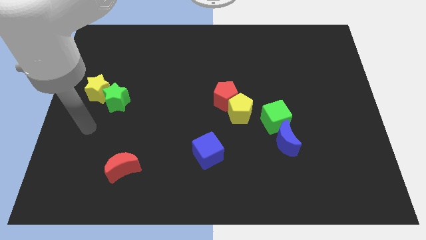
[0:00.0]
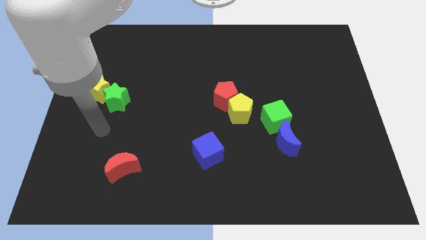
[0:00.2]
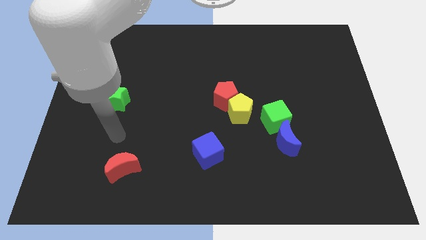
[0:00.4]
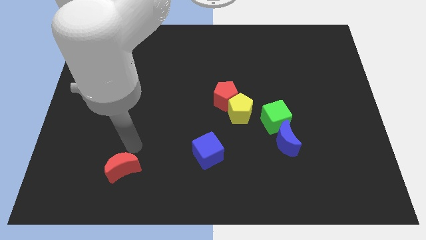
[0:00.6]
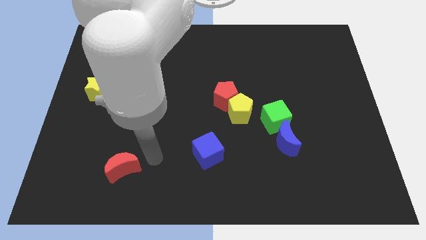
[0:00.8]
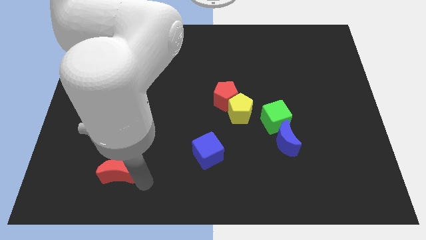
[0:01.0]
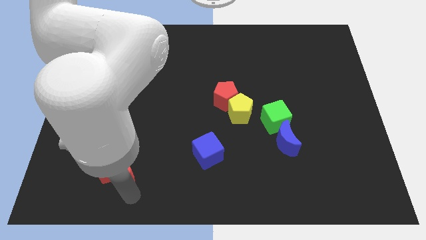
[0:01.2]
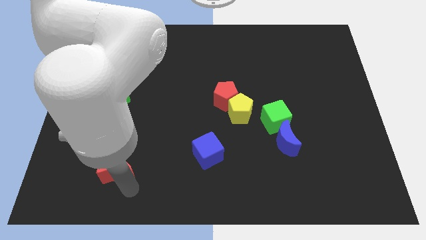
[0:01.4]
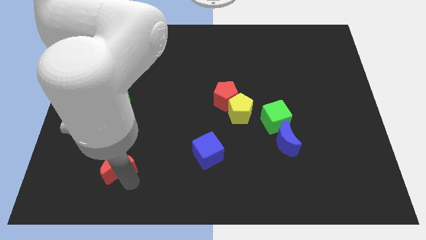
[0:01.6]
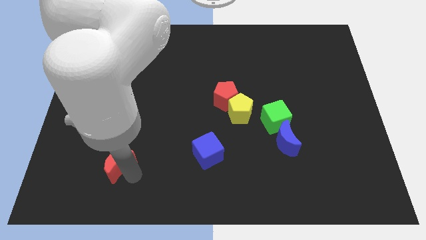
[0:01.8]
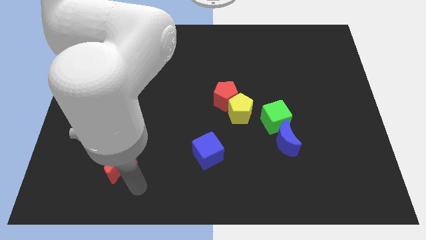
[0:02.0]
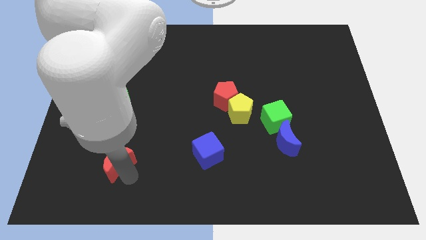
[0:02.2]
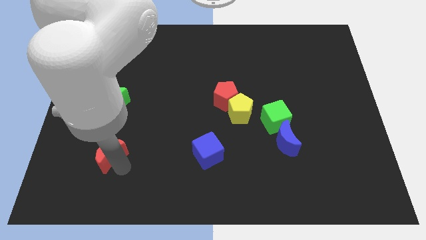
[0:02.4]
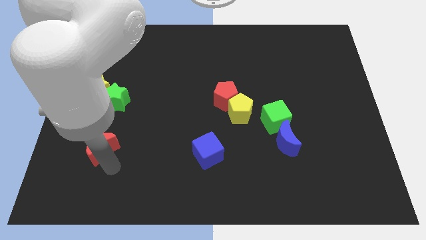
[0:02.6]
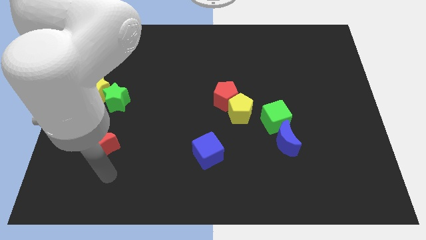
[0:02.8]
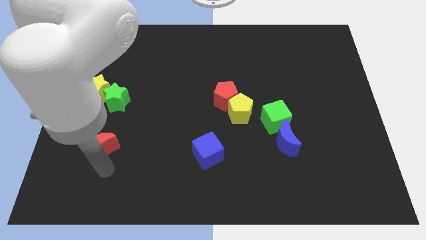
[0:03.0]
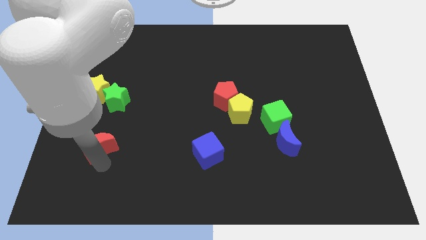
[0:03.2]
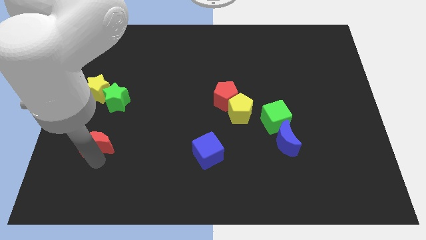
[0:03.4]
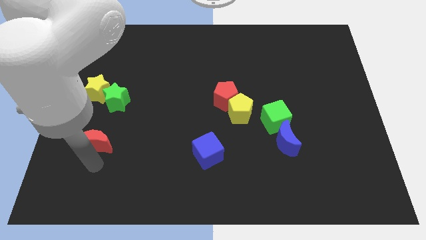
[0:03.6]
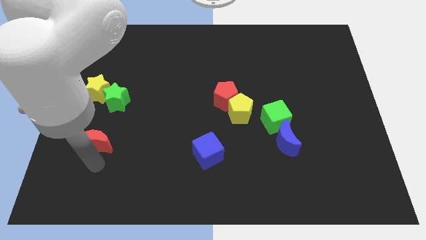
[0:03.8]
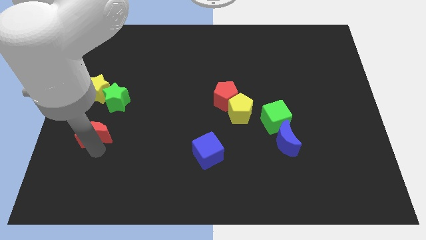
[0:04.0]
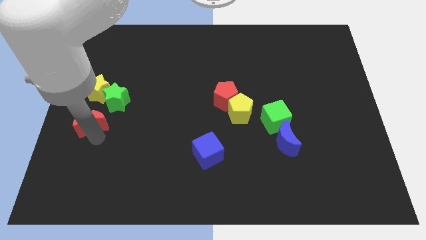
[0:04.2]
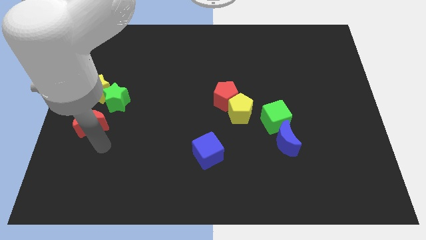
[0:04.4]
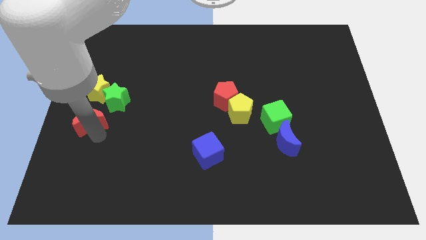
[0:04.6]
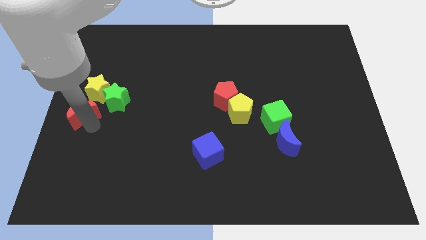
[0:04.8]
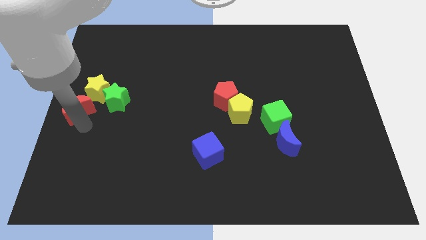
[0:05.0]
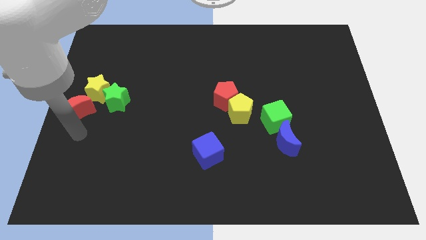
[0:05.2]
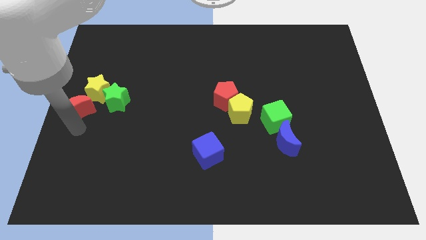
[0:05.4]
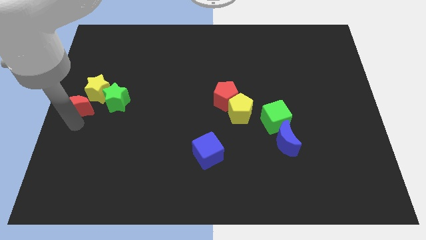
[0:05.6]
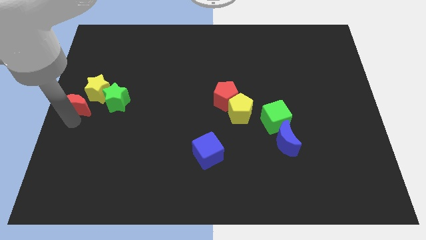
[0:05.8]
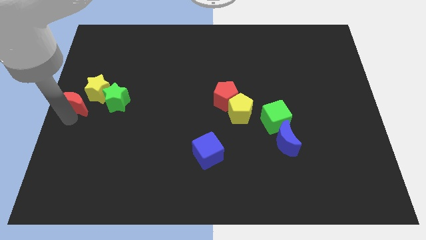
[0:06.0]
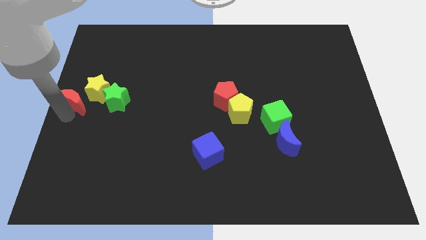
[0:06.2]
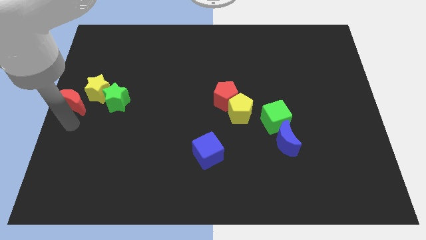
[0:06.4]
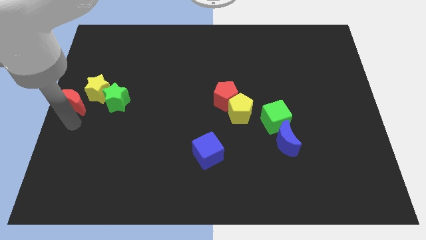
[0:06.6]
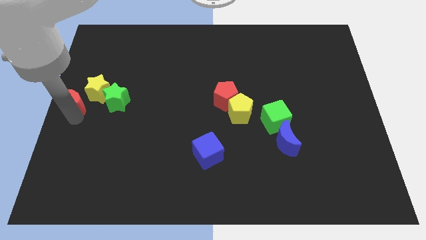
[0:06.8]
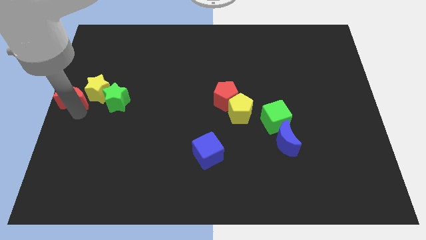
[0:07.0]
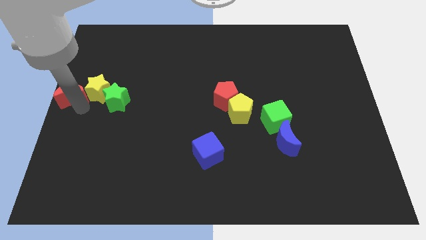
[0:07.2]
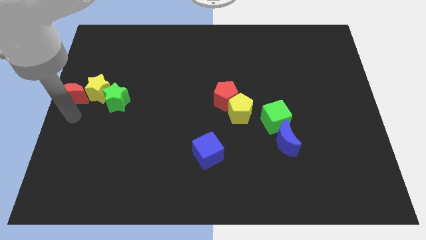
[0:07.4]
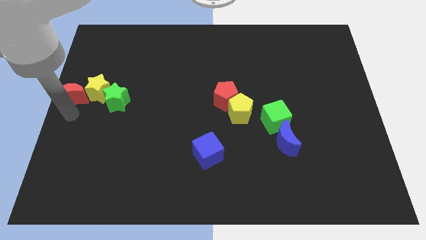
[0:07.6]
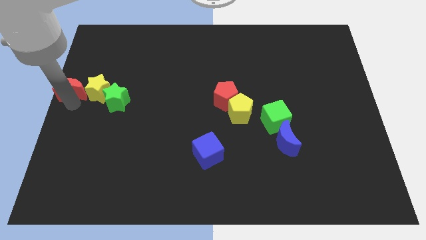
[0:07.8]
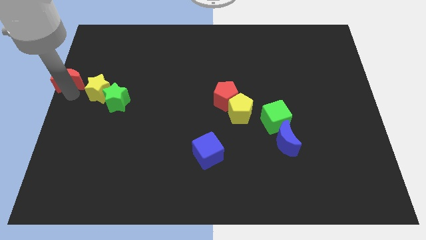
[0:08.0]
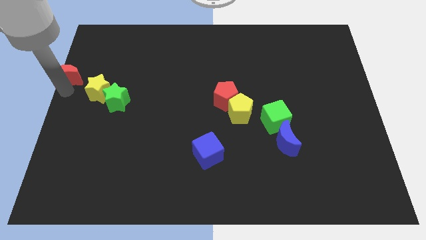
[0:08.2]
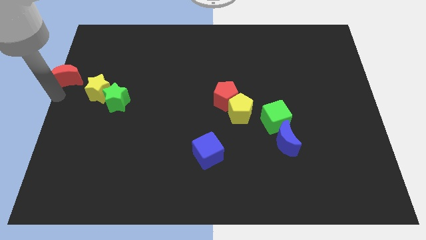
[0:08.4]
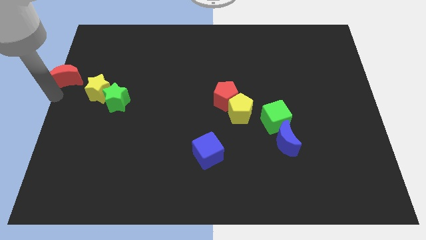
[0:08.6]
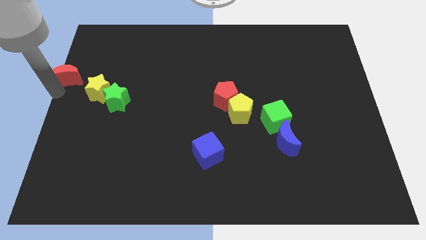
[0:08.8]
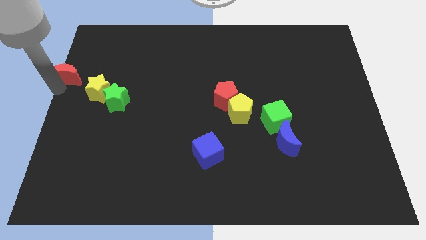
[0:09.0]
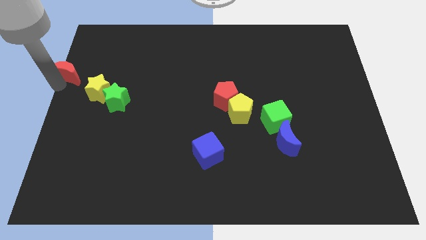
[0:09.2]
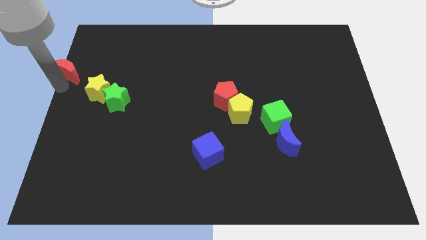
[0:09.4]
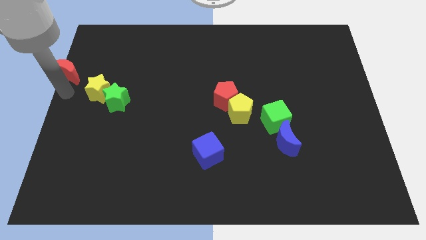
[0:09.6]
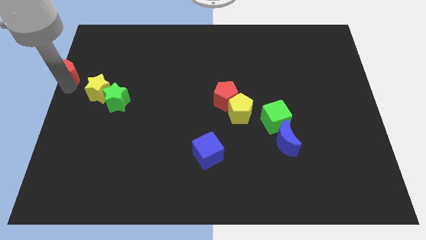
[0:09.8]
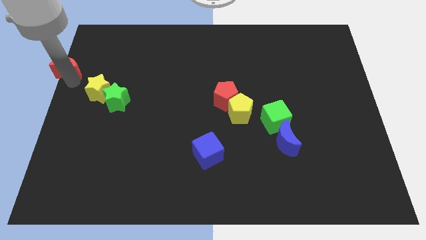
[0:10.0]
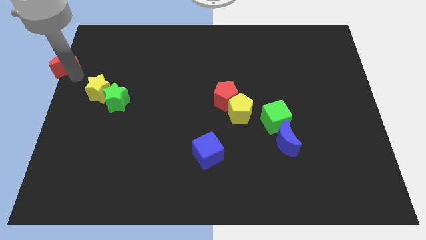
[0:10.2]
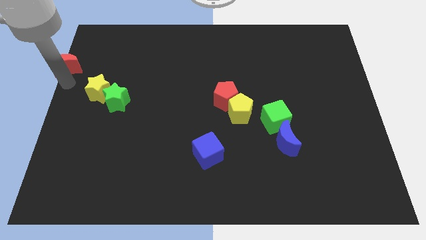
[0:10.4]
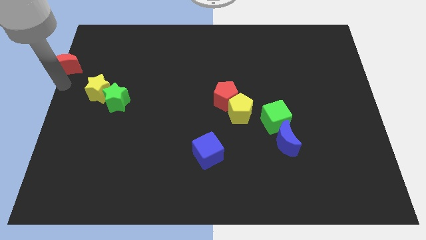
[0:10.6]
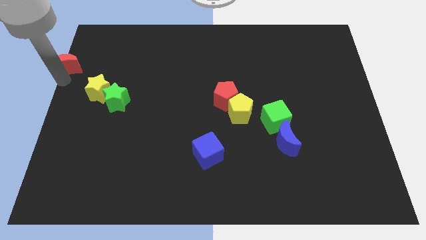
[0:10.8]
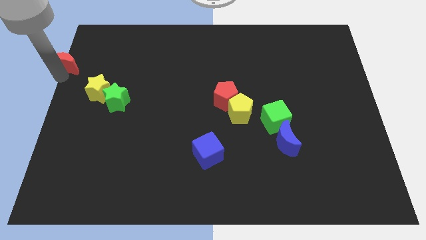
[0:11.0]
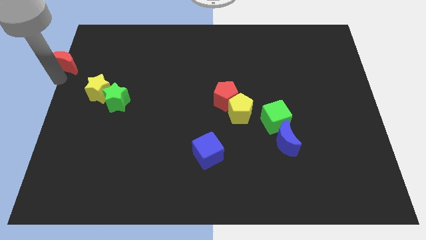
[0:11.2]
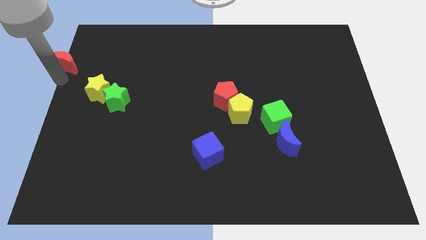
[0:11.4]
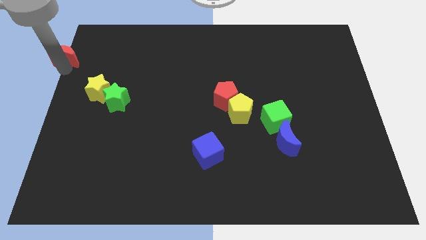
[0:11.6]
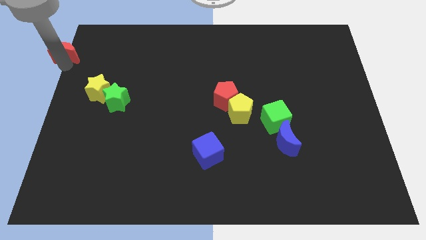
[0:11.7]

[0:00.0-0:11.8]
move the red moon to the top left of the board
